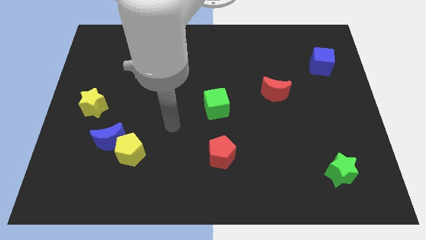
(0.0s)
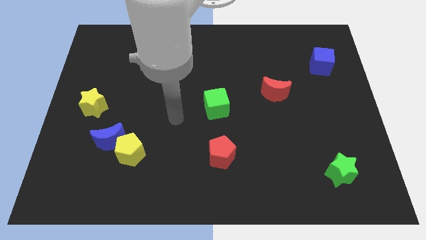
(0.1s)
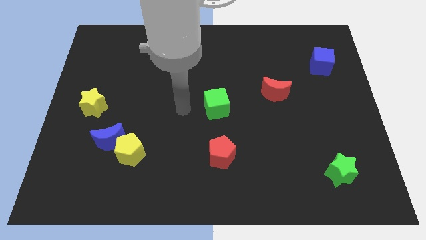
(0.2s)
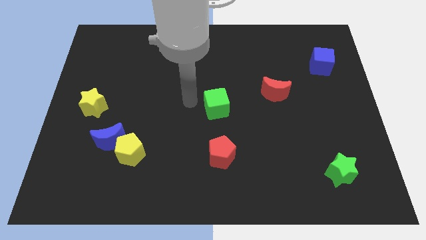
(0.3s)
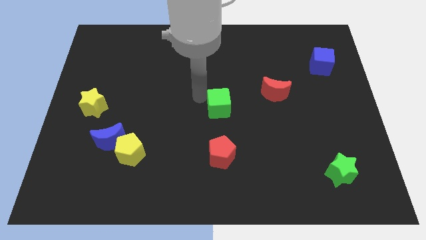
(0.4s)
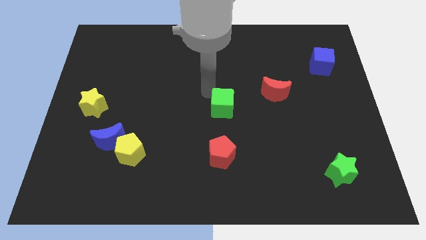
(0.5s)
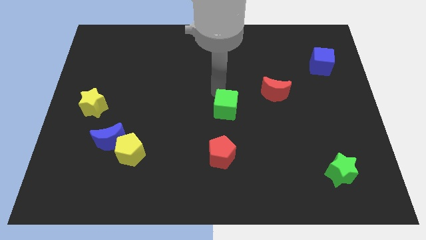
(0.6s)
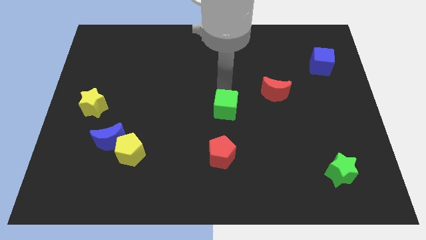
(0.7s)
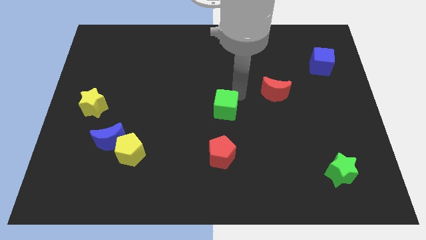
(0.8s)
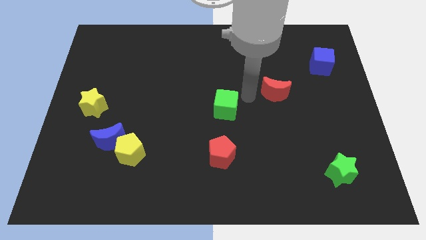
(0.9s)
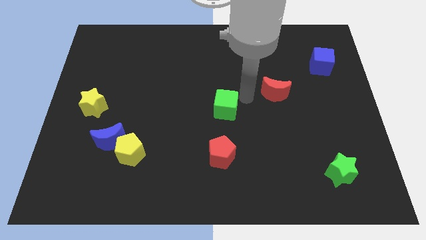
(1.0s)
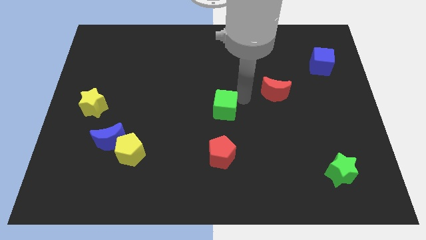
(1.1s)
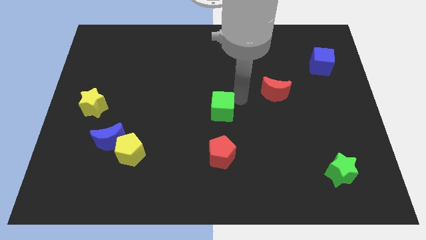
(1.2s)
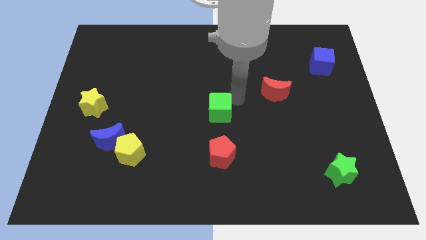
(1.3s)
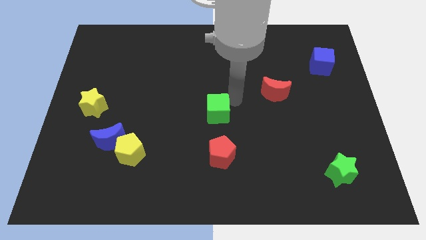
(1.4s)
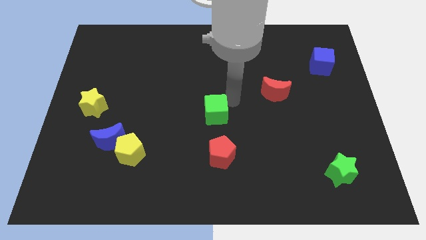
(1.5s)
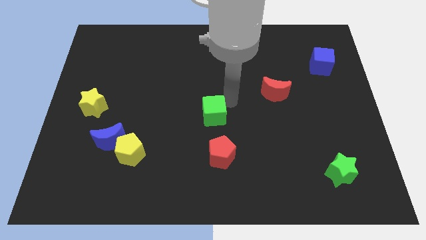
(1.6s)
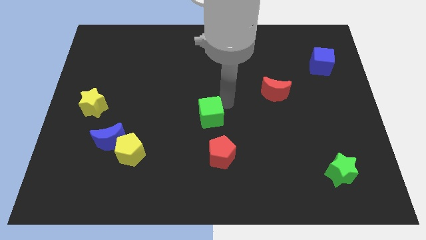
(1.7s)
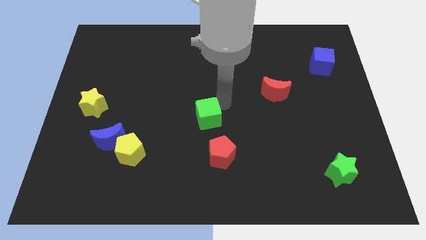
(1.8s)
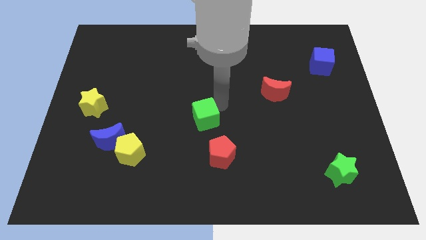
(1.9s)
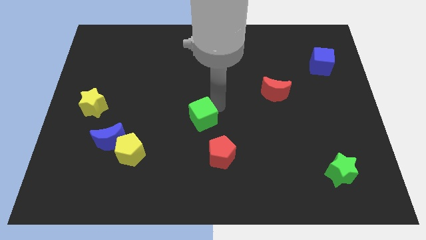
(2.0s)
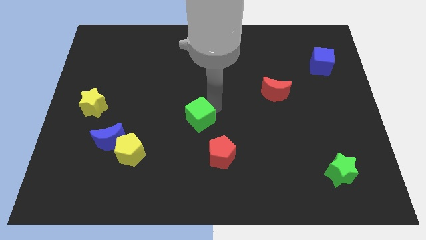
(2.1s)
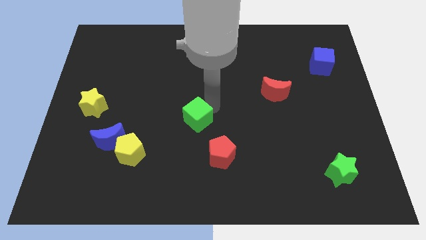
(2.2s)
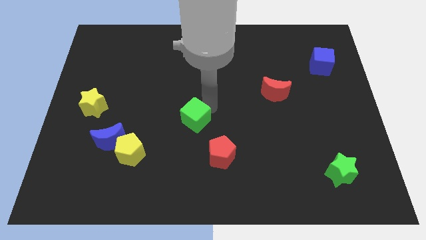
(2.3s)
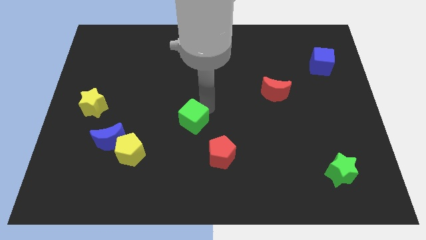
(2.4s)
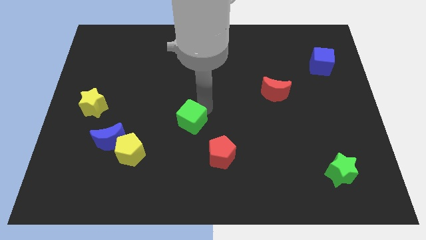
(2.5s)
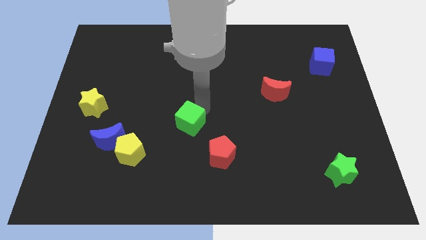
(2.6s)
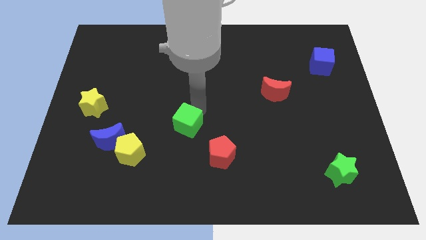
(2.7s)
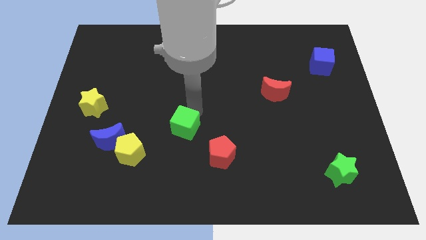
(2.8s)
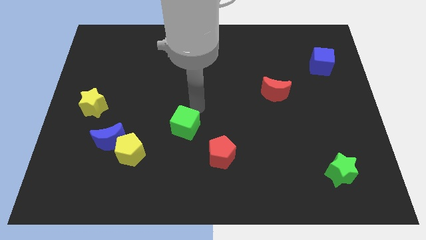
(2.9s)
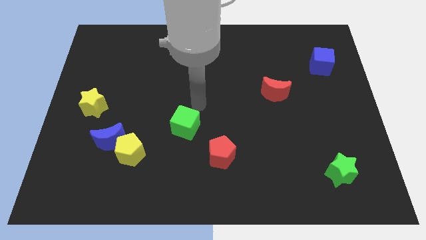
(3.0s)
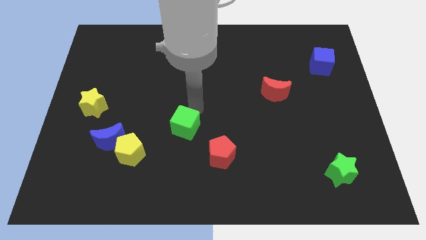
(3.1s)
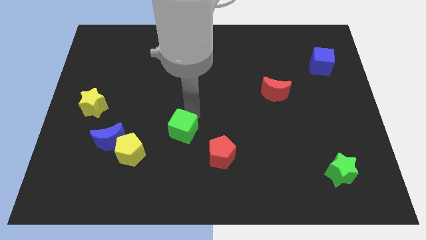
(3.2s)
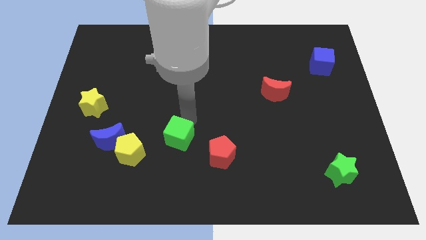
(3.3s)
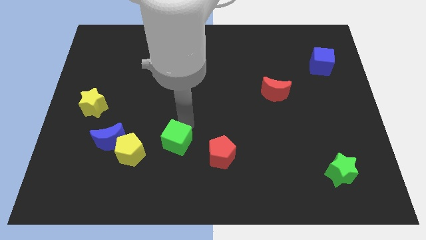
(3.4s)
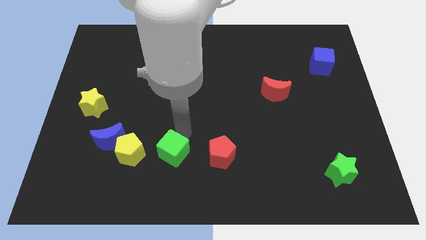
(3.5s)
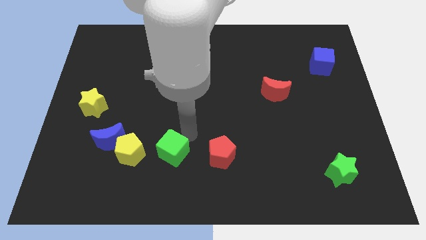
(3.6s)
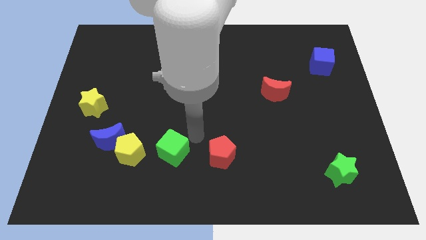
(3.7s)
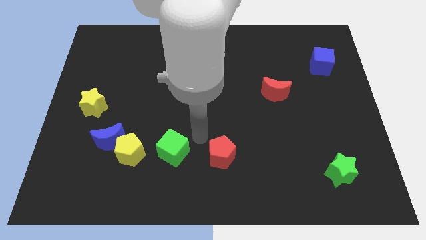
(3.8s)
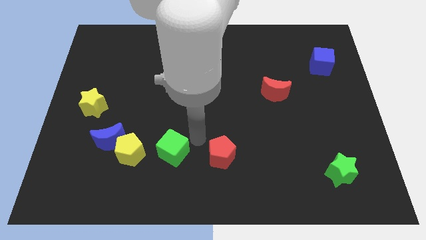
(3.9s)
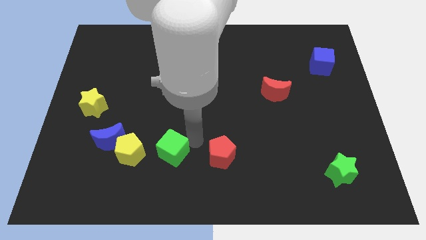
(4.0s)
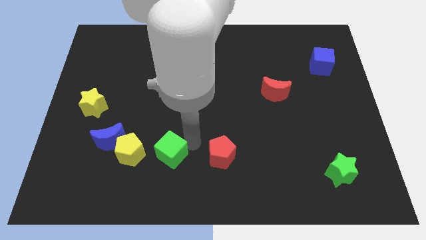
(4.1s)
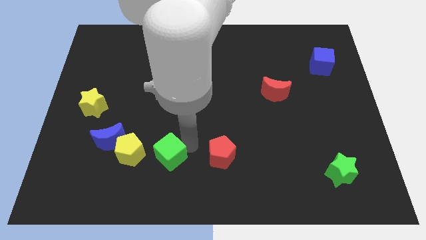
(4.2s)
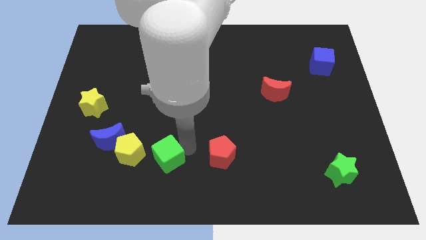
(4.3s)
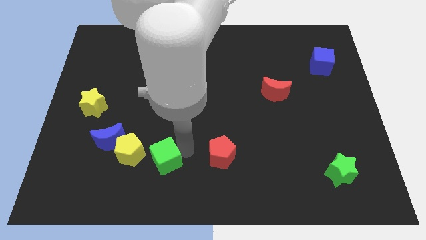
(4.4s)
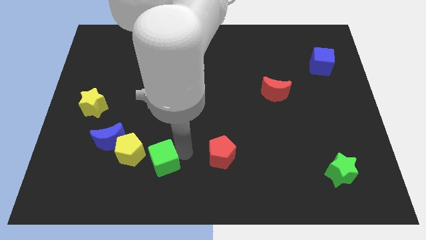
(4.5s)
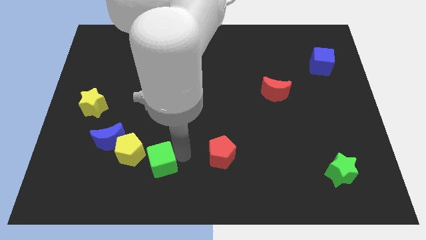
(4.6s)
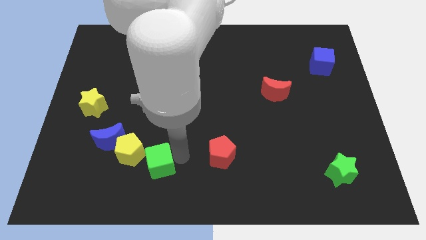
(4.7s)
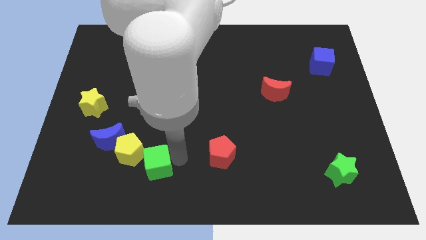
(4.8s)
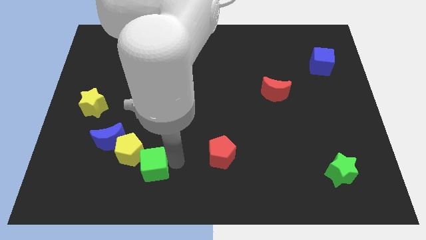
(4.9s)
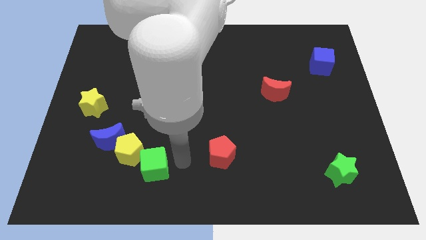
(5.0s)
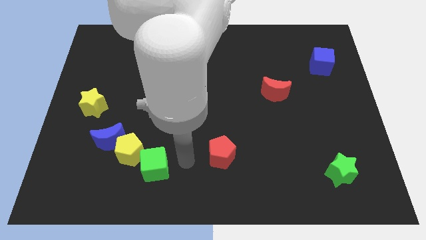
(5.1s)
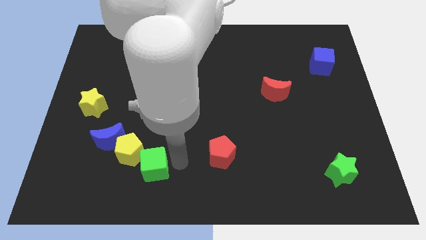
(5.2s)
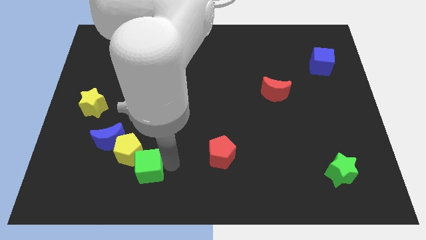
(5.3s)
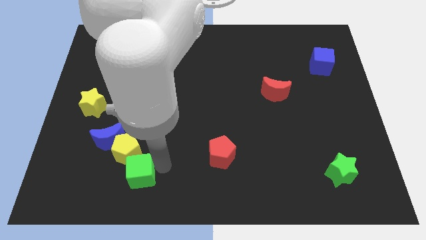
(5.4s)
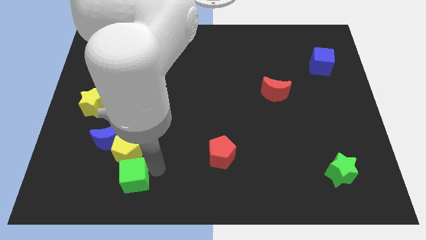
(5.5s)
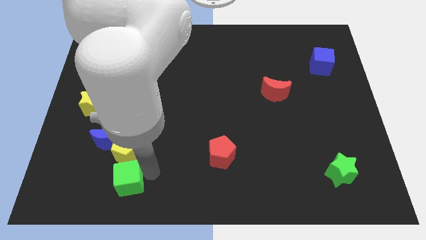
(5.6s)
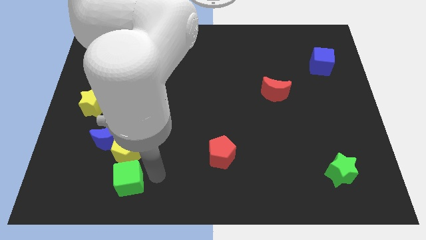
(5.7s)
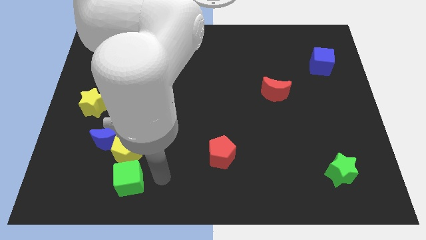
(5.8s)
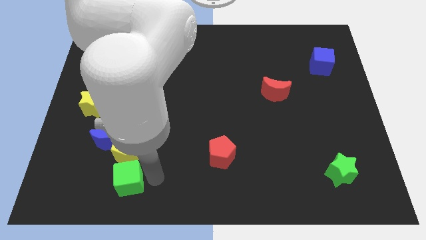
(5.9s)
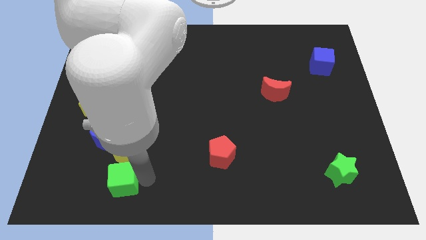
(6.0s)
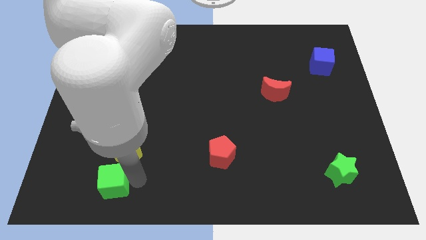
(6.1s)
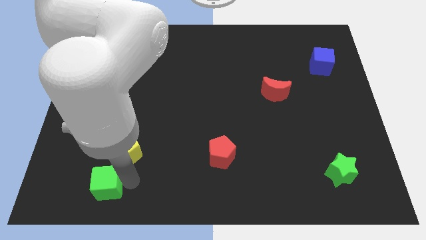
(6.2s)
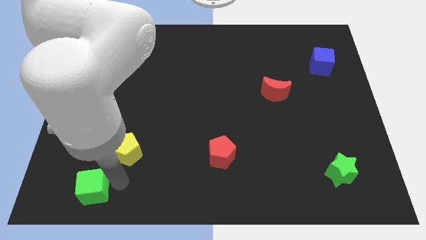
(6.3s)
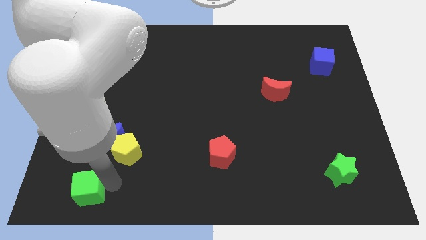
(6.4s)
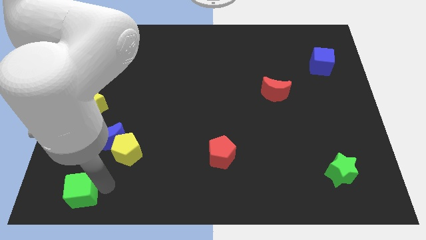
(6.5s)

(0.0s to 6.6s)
push the green cube to the bottom left
